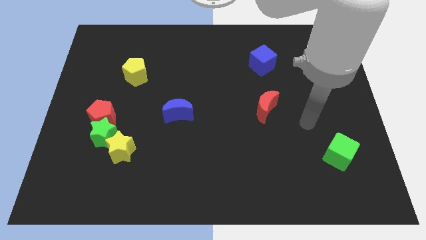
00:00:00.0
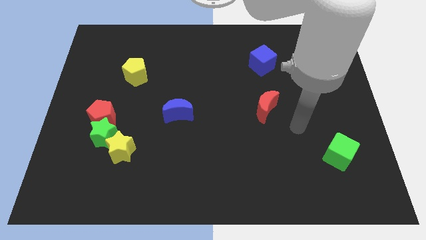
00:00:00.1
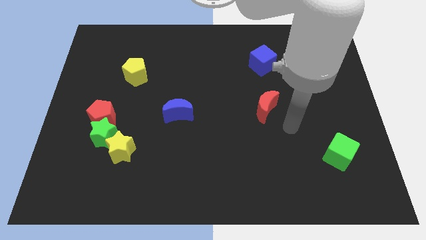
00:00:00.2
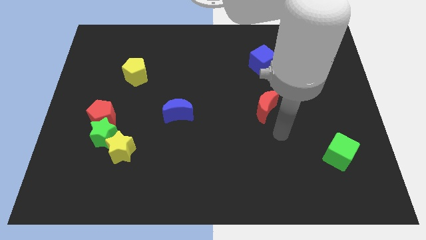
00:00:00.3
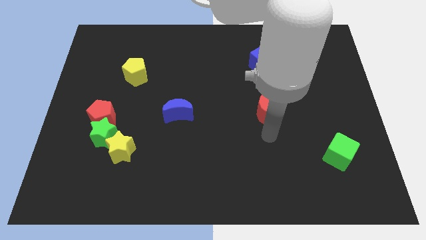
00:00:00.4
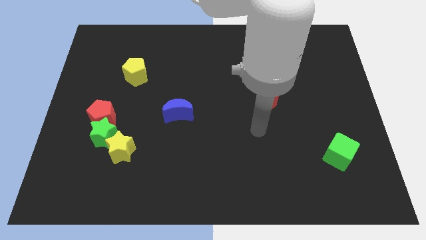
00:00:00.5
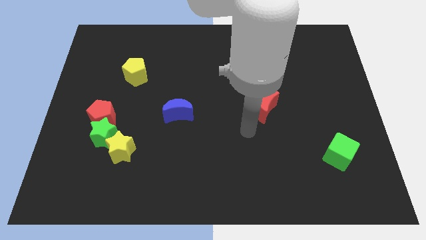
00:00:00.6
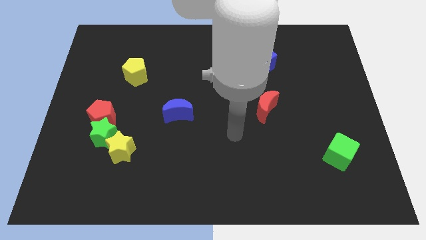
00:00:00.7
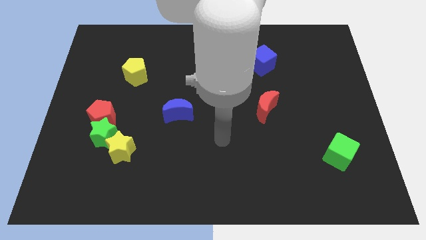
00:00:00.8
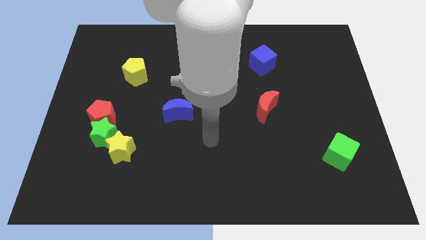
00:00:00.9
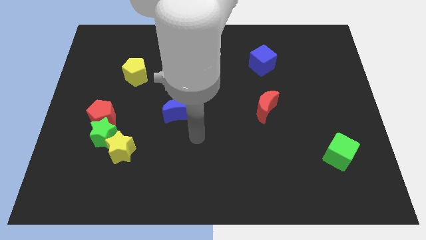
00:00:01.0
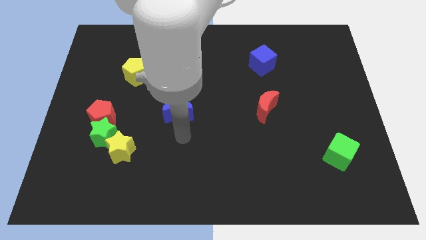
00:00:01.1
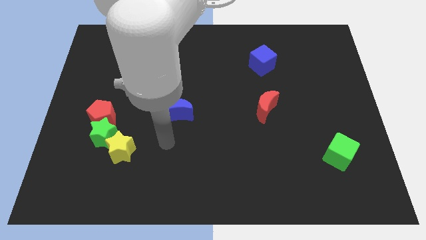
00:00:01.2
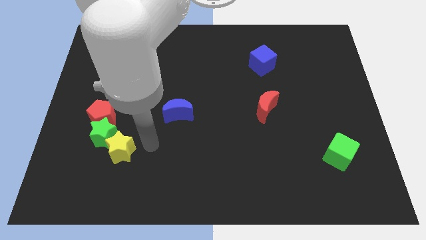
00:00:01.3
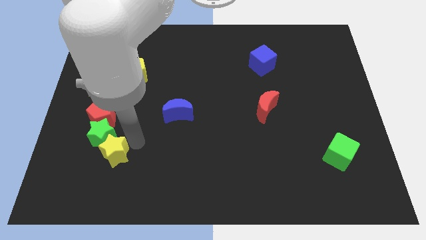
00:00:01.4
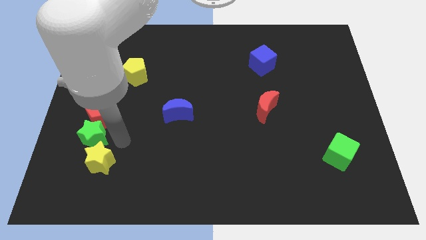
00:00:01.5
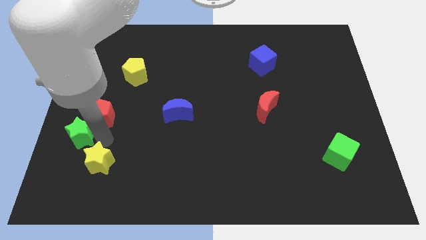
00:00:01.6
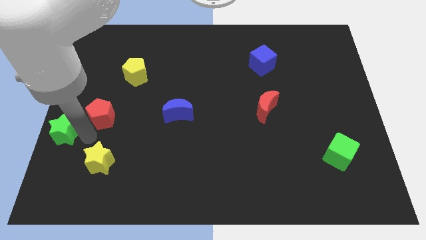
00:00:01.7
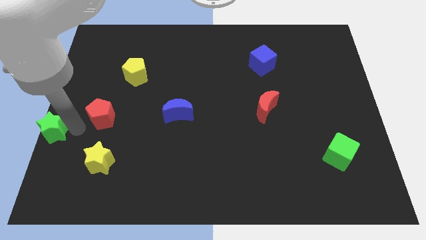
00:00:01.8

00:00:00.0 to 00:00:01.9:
pull the red pentagon apart from the green star

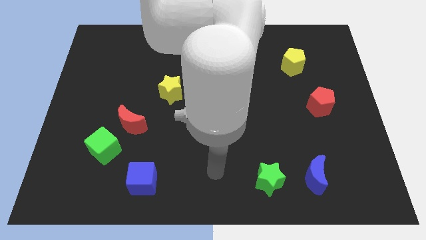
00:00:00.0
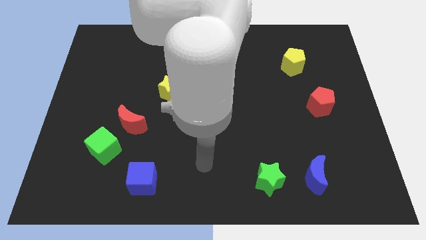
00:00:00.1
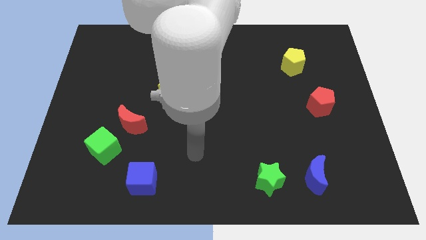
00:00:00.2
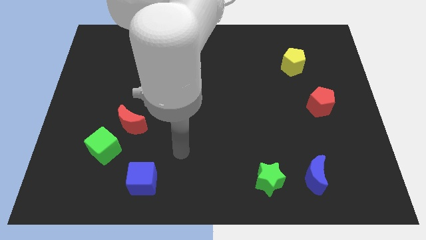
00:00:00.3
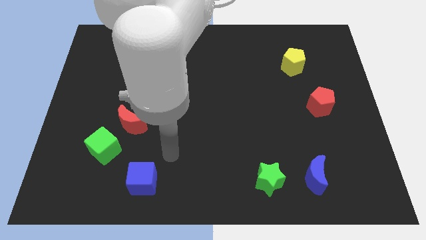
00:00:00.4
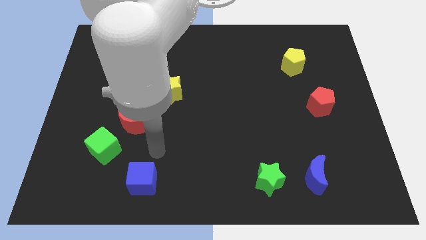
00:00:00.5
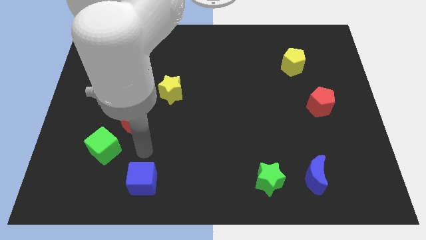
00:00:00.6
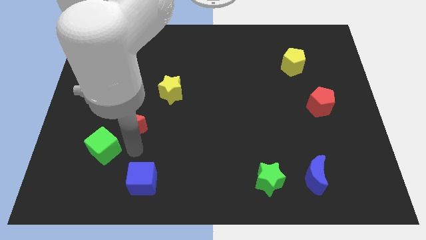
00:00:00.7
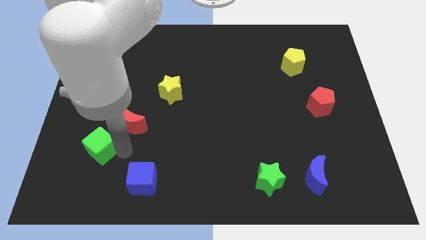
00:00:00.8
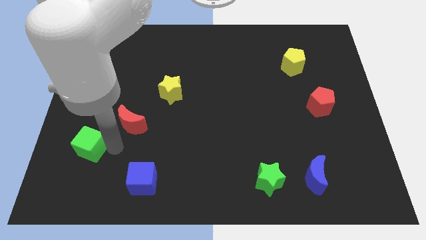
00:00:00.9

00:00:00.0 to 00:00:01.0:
pull the red moon apart from the green cube

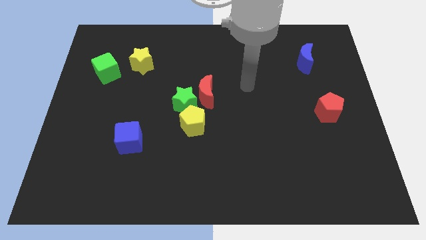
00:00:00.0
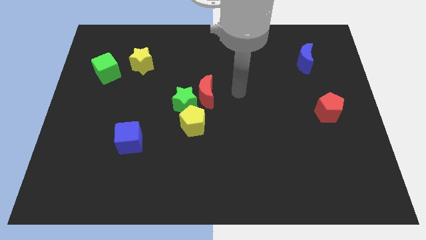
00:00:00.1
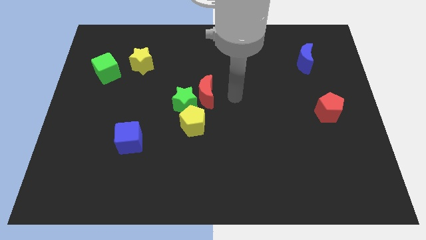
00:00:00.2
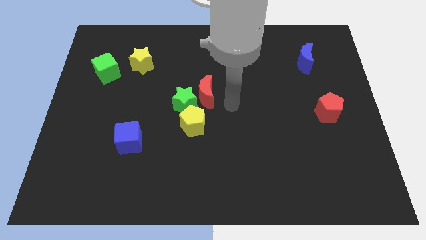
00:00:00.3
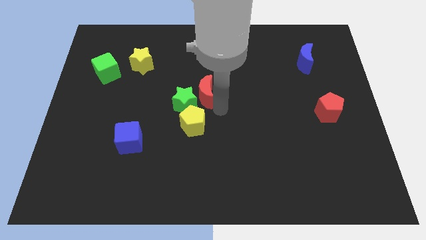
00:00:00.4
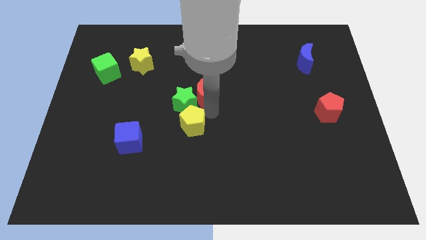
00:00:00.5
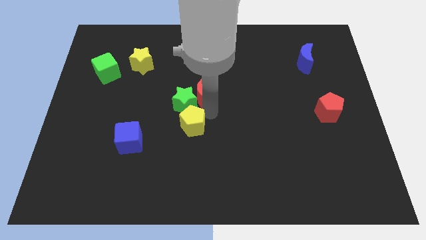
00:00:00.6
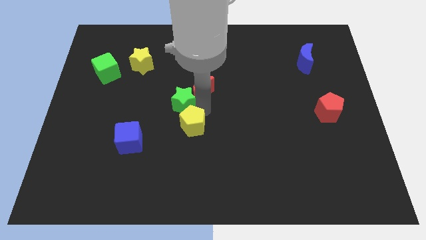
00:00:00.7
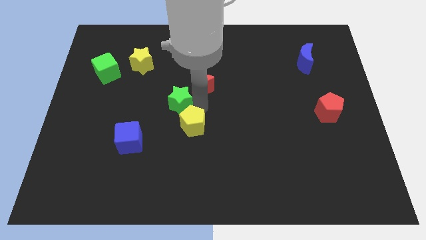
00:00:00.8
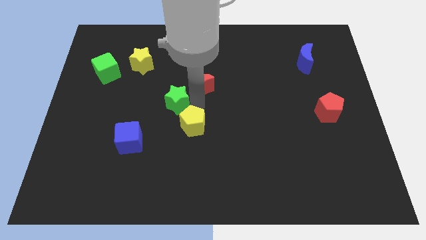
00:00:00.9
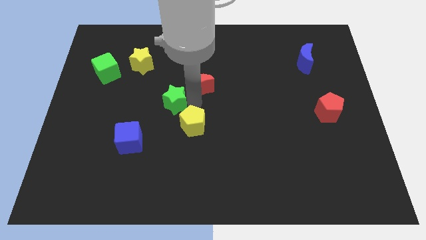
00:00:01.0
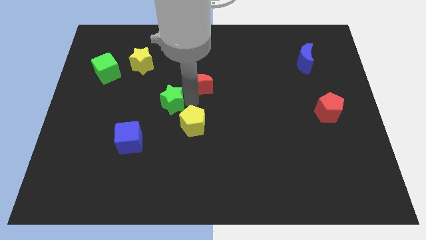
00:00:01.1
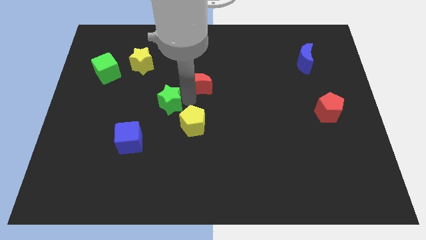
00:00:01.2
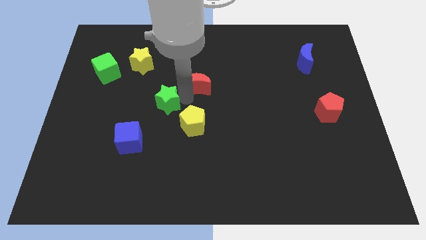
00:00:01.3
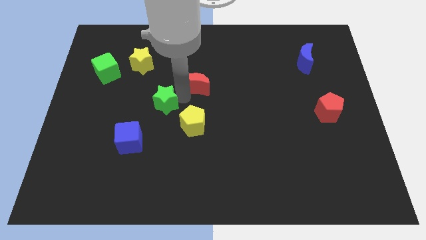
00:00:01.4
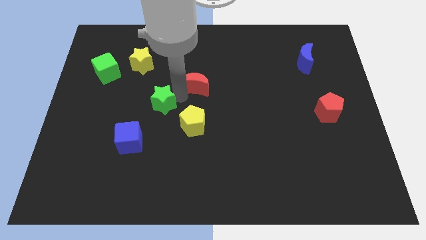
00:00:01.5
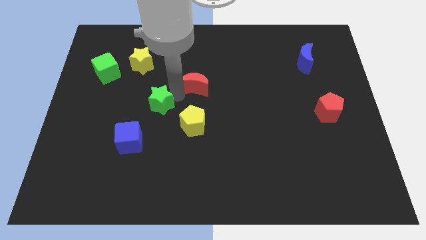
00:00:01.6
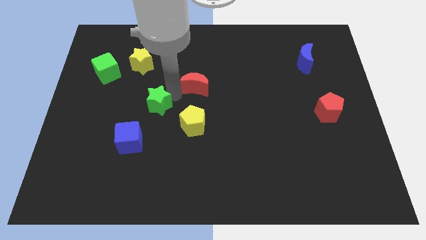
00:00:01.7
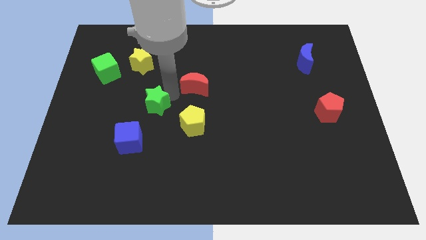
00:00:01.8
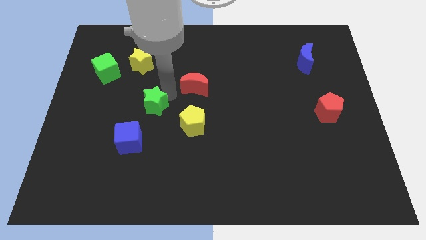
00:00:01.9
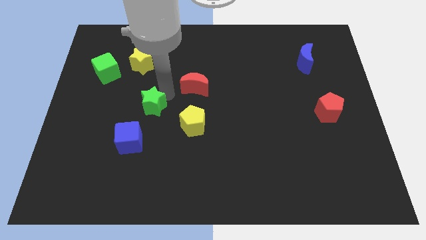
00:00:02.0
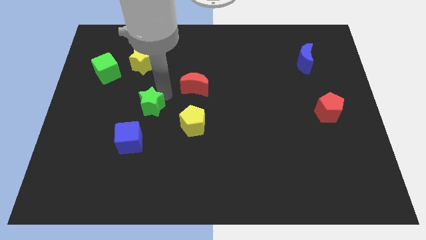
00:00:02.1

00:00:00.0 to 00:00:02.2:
pull the green star apart from the red moon and yellow pentagon

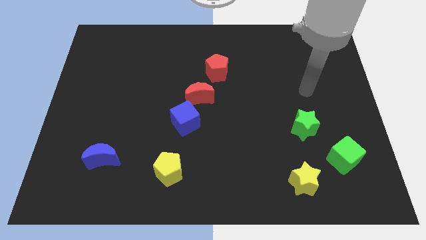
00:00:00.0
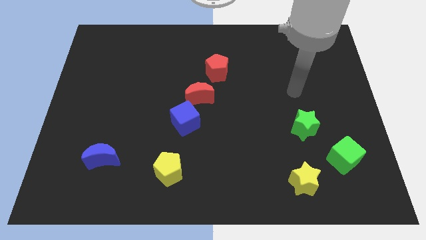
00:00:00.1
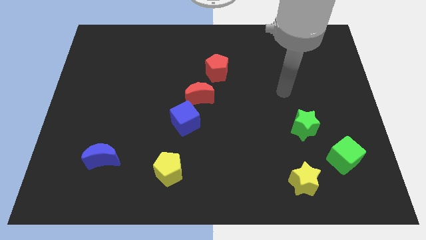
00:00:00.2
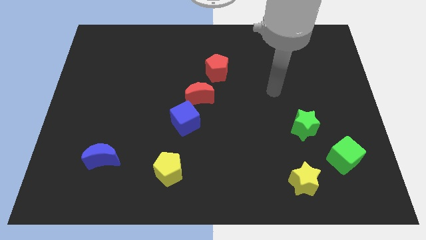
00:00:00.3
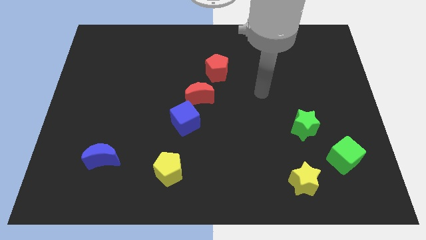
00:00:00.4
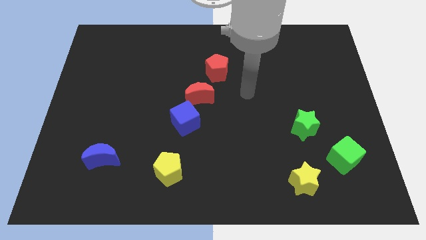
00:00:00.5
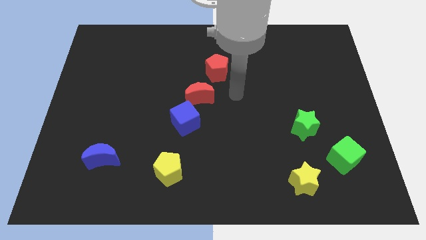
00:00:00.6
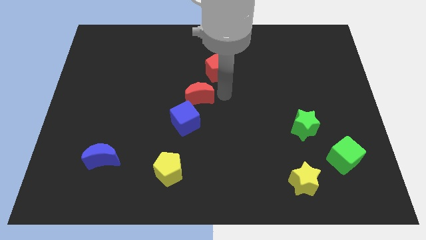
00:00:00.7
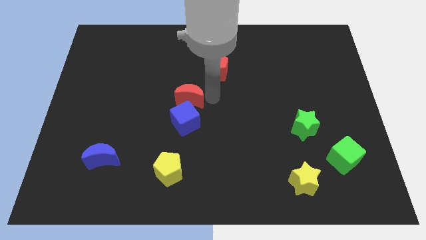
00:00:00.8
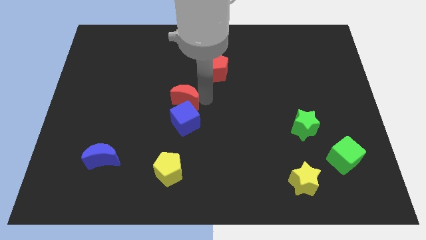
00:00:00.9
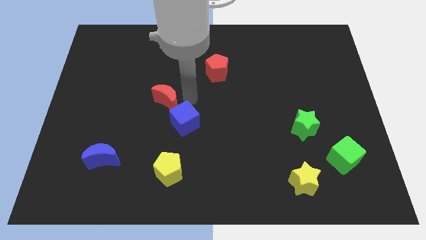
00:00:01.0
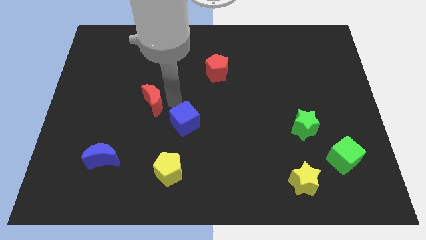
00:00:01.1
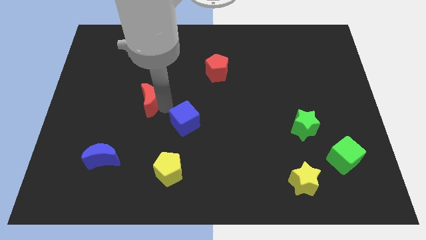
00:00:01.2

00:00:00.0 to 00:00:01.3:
move the blue cube away from the red moon

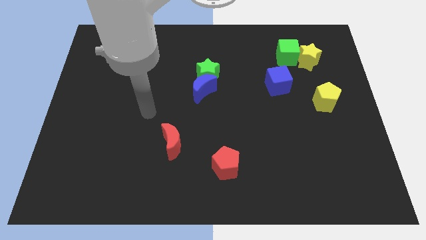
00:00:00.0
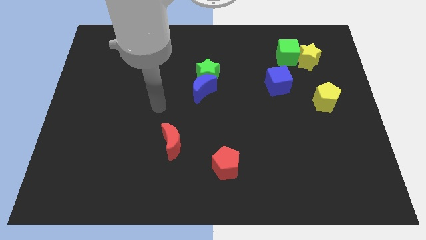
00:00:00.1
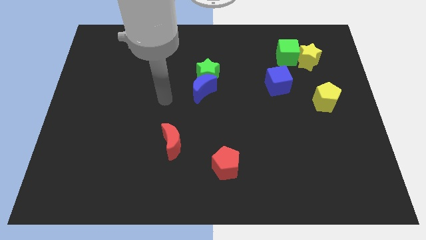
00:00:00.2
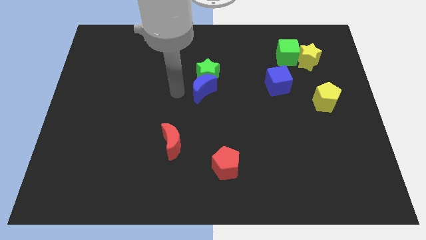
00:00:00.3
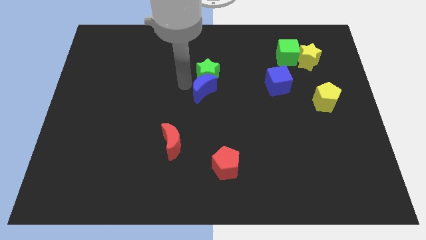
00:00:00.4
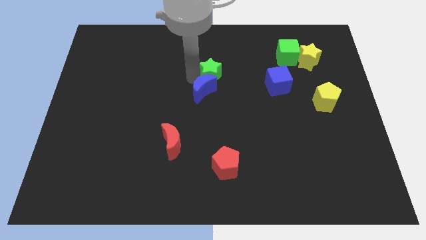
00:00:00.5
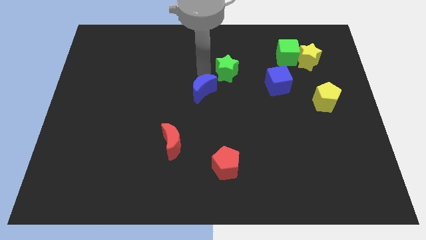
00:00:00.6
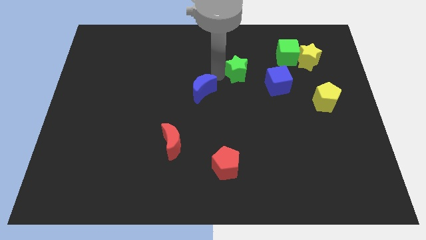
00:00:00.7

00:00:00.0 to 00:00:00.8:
move the blue moon away from the green star

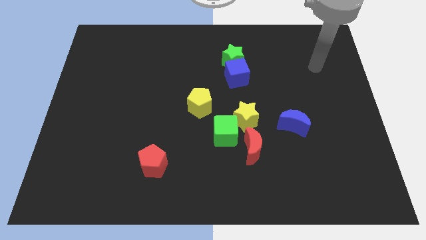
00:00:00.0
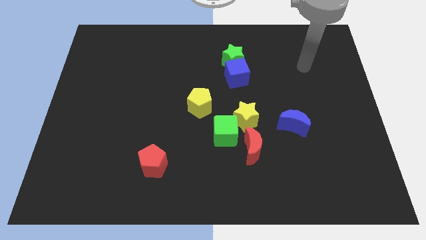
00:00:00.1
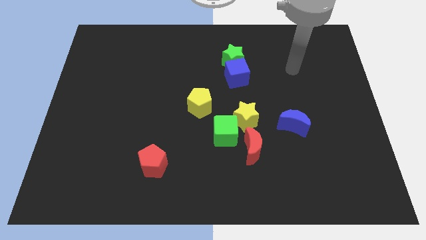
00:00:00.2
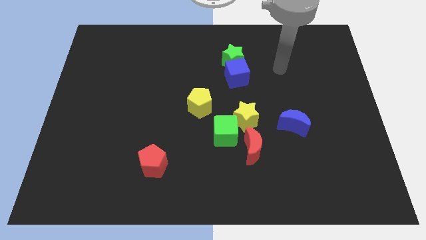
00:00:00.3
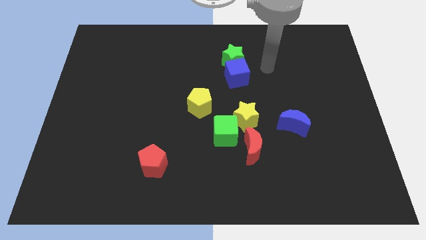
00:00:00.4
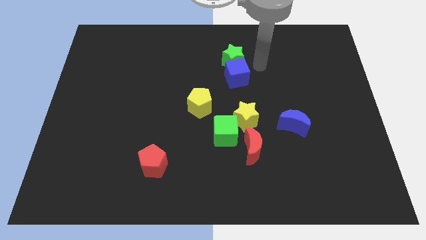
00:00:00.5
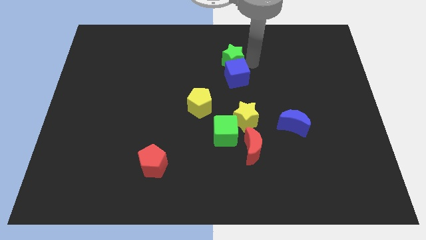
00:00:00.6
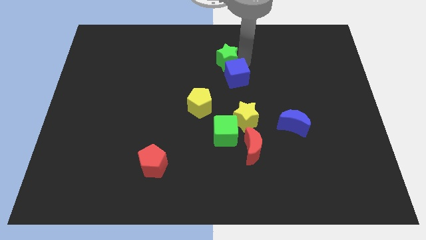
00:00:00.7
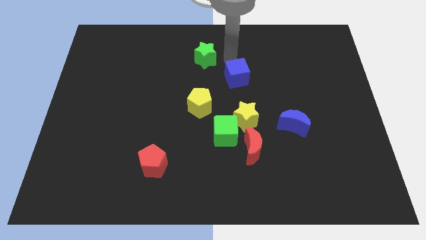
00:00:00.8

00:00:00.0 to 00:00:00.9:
move the blue cube away from the green star

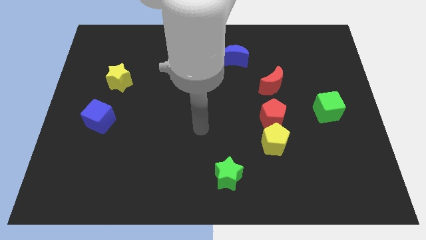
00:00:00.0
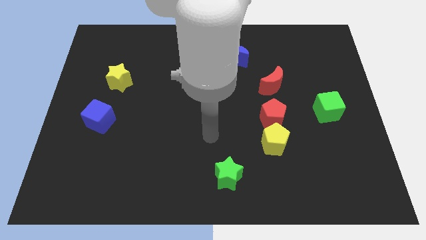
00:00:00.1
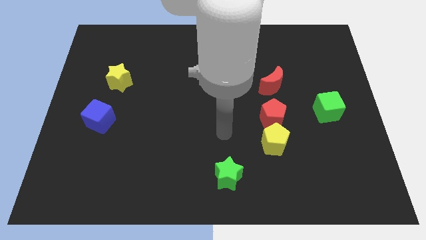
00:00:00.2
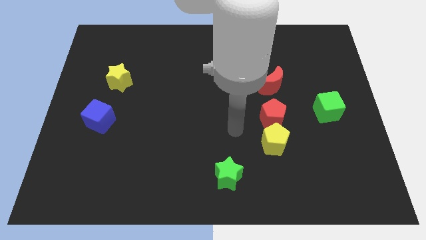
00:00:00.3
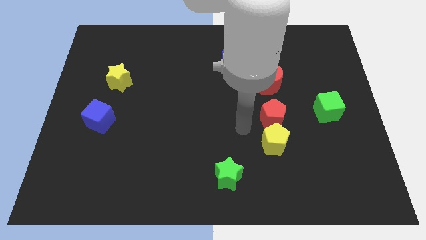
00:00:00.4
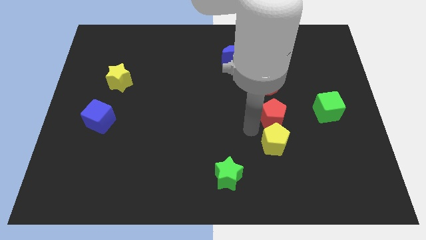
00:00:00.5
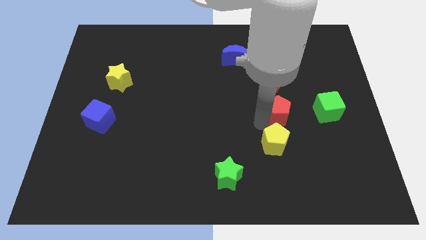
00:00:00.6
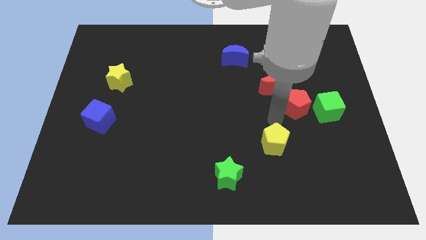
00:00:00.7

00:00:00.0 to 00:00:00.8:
separate the yellow pentagon from the red pentagon

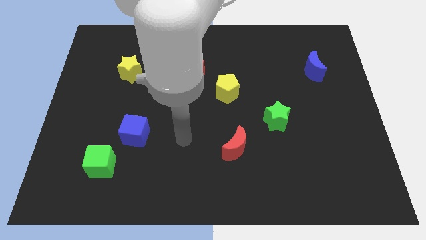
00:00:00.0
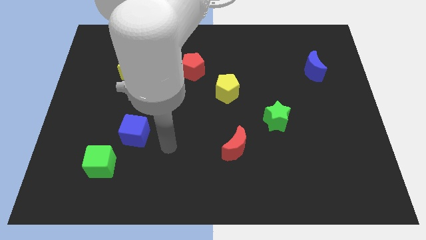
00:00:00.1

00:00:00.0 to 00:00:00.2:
pull the blue cube apart from the green cube
